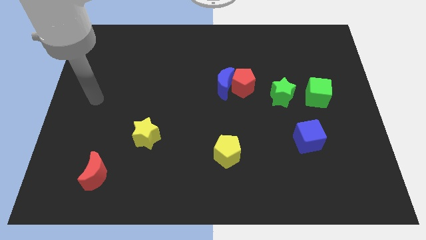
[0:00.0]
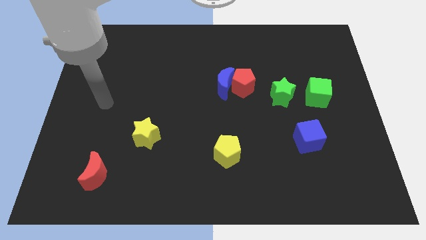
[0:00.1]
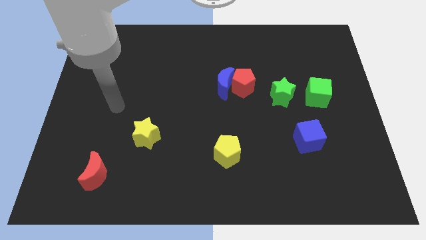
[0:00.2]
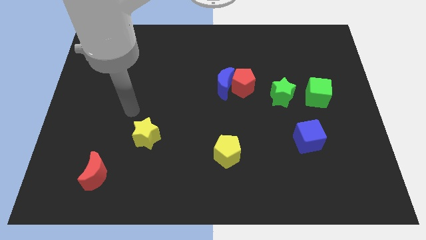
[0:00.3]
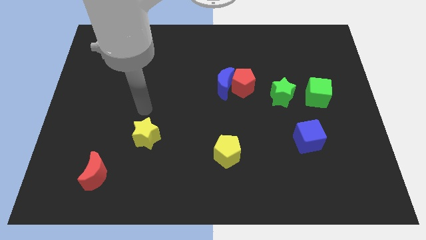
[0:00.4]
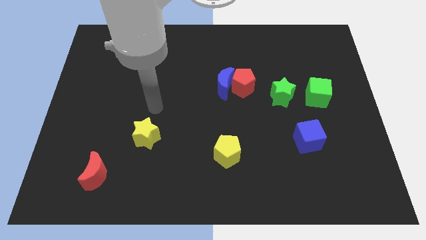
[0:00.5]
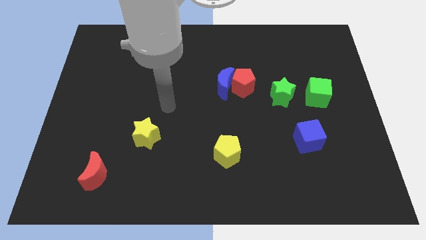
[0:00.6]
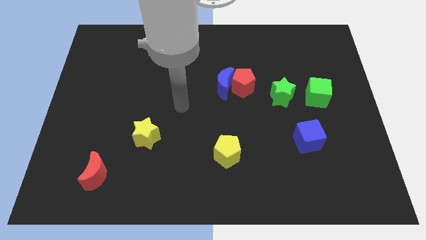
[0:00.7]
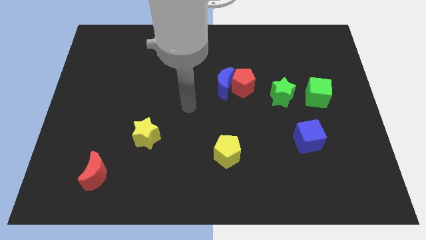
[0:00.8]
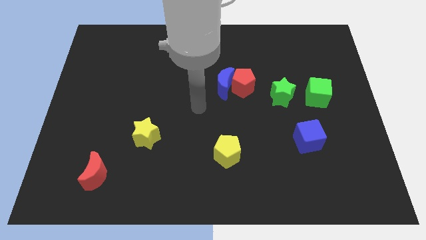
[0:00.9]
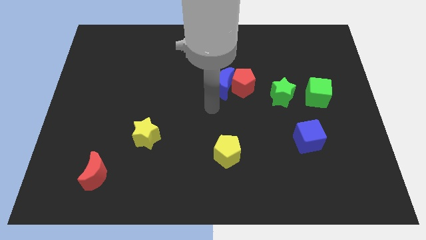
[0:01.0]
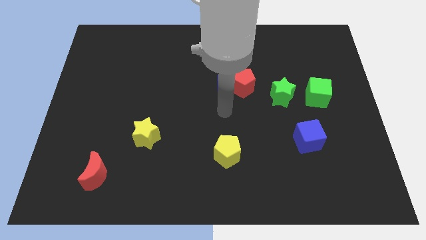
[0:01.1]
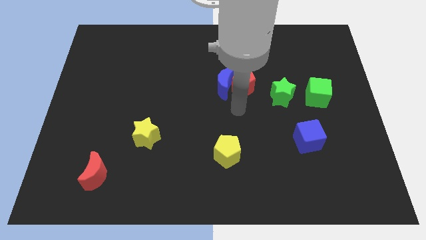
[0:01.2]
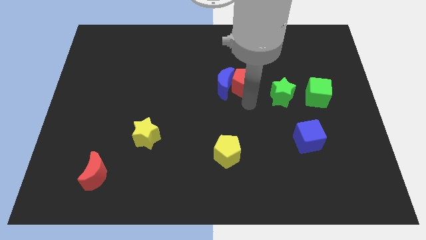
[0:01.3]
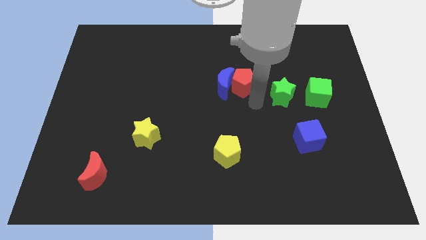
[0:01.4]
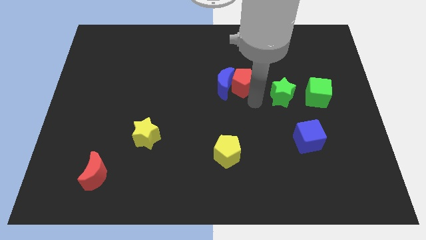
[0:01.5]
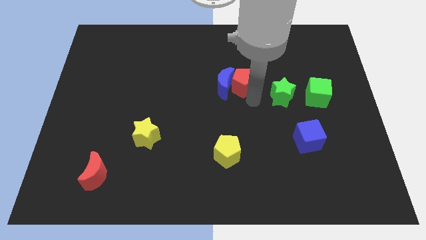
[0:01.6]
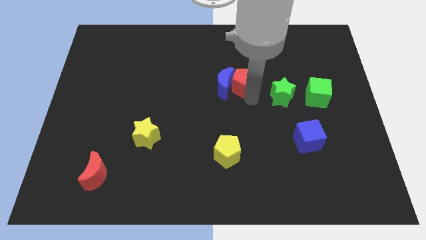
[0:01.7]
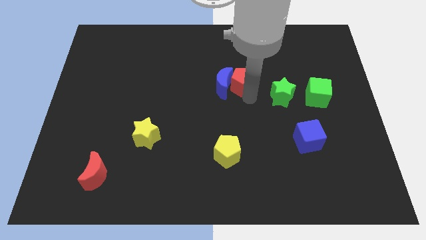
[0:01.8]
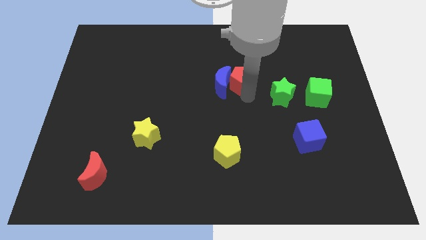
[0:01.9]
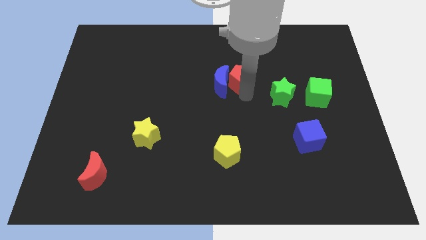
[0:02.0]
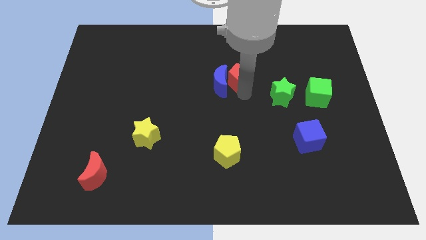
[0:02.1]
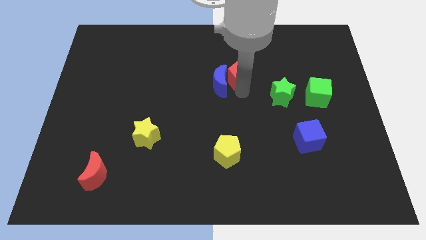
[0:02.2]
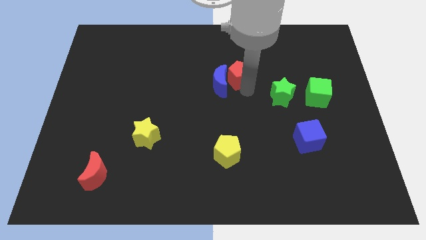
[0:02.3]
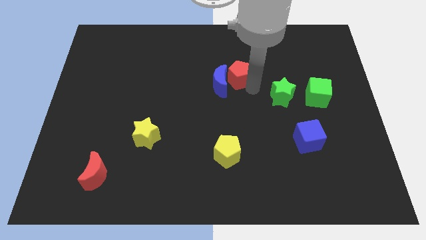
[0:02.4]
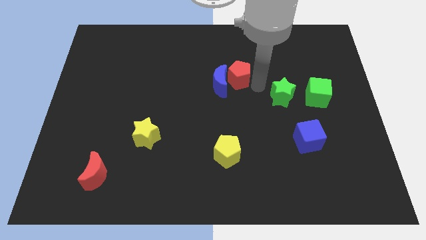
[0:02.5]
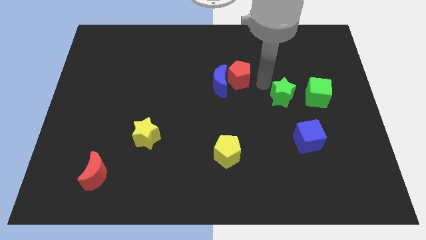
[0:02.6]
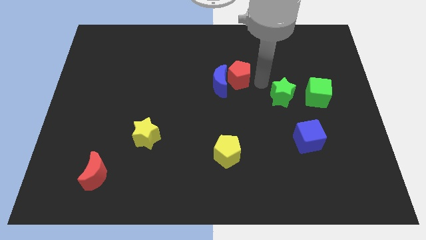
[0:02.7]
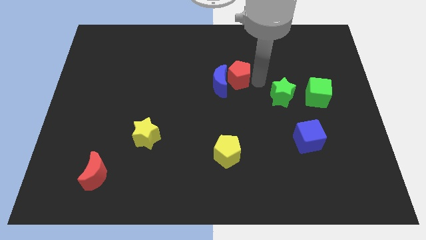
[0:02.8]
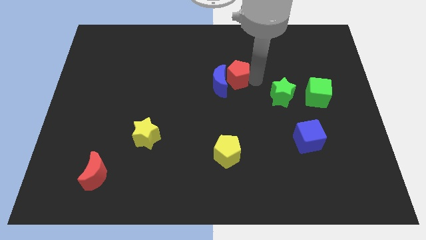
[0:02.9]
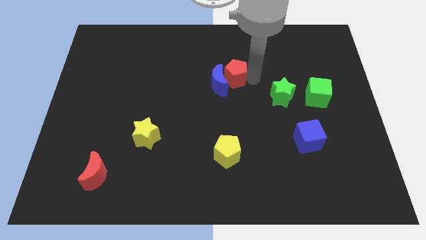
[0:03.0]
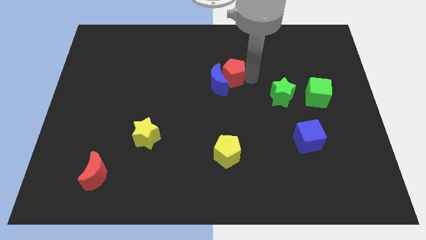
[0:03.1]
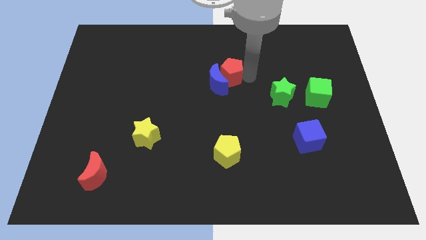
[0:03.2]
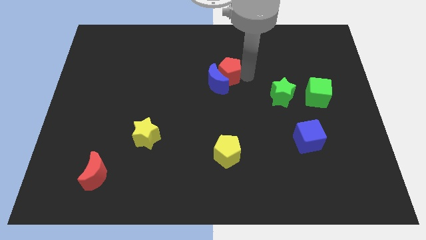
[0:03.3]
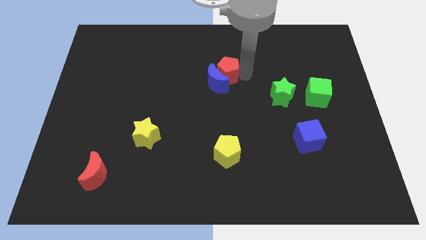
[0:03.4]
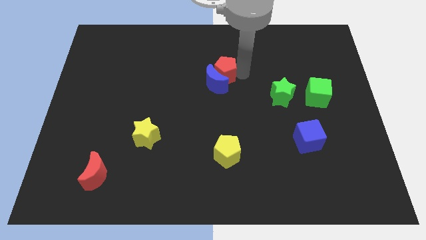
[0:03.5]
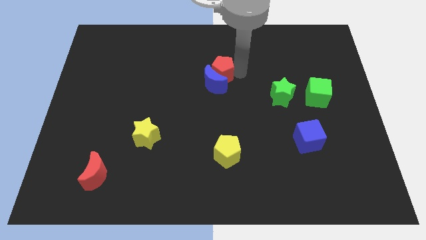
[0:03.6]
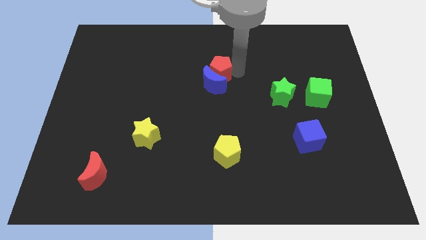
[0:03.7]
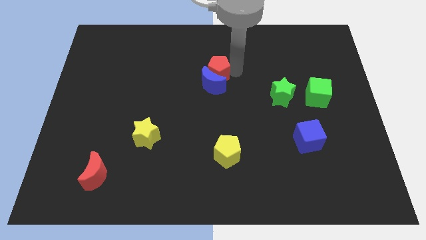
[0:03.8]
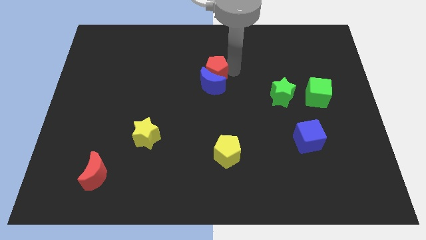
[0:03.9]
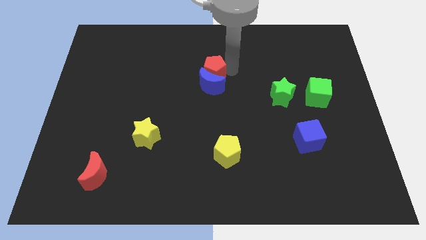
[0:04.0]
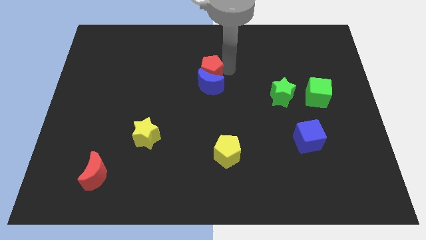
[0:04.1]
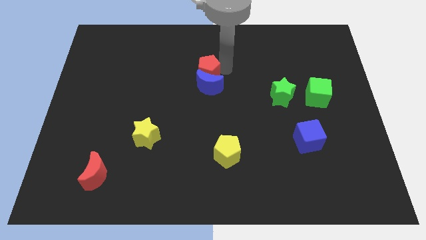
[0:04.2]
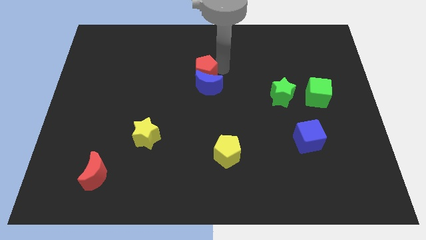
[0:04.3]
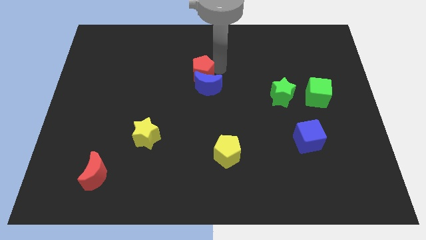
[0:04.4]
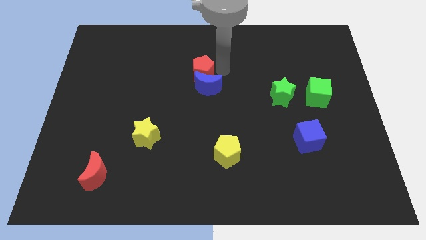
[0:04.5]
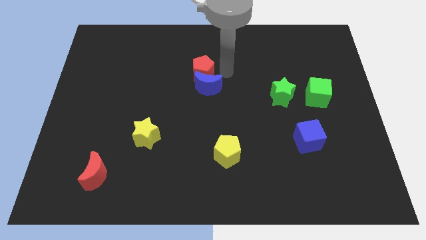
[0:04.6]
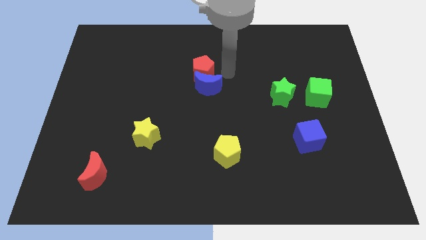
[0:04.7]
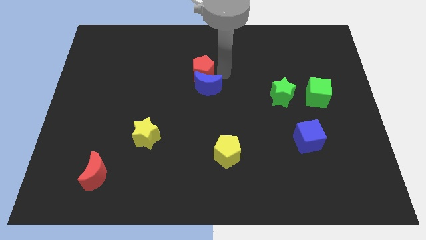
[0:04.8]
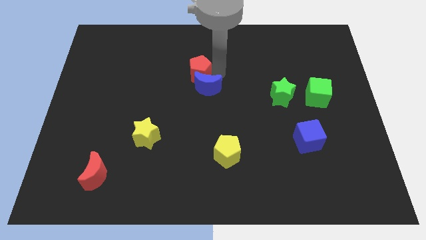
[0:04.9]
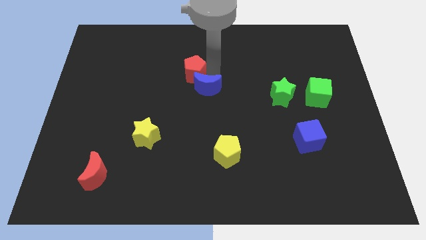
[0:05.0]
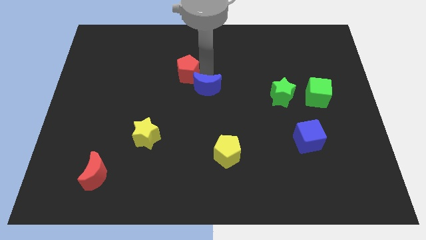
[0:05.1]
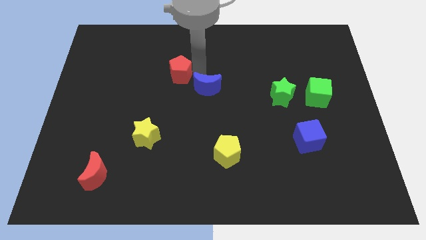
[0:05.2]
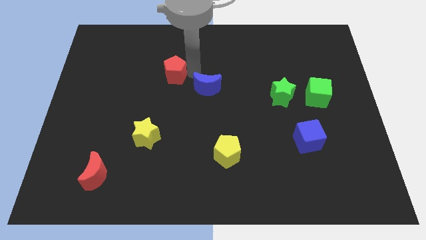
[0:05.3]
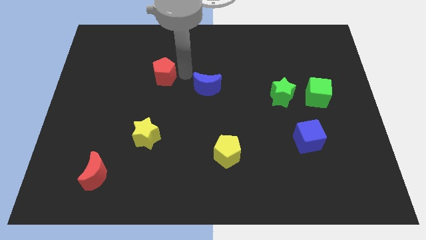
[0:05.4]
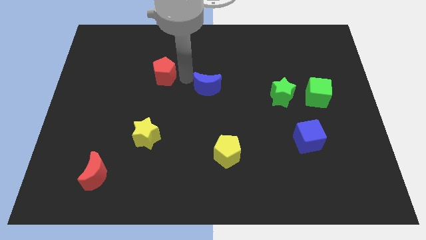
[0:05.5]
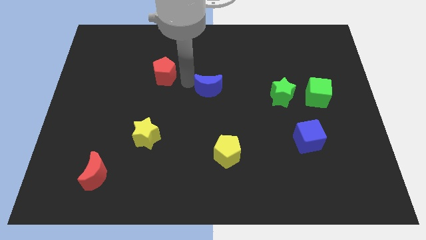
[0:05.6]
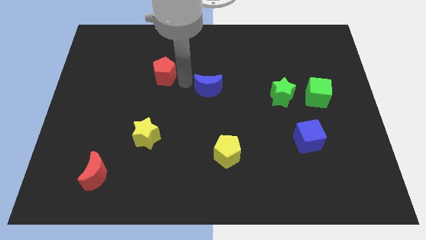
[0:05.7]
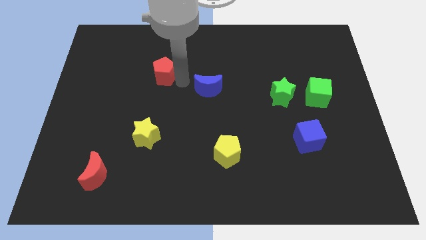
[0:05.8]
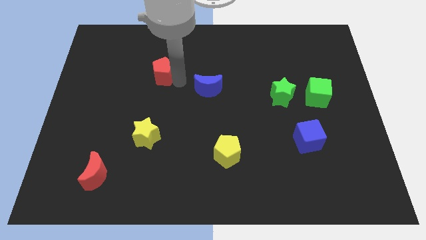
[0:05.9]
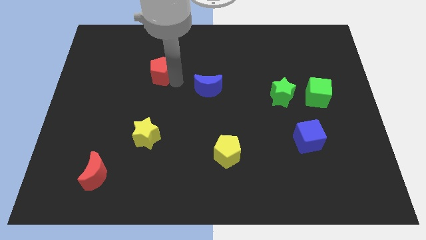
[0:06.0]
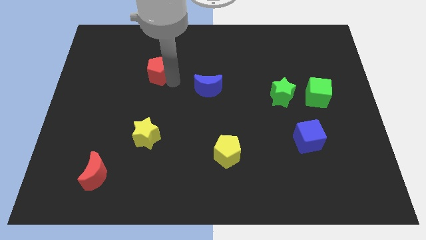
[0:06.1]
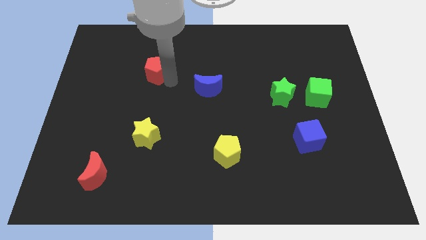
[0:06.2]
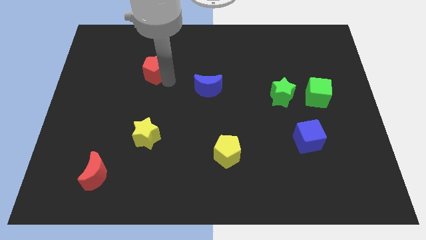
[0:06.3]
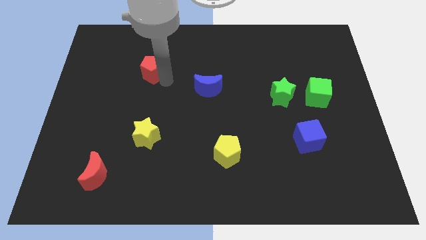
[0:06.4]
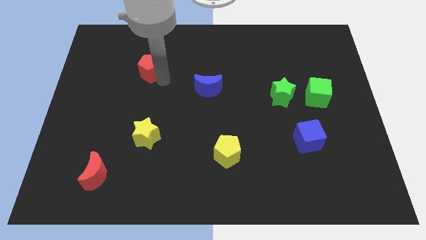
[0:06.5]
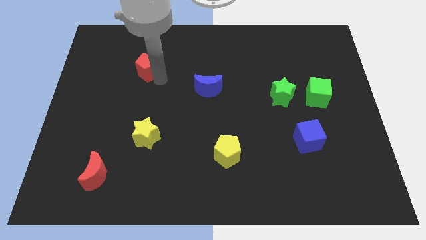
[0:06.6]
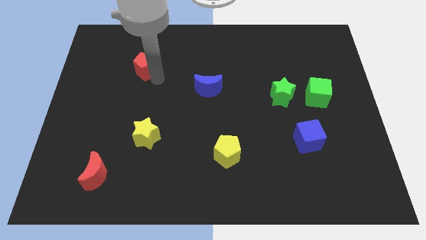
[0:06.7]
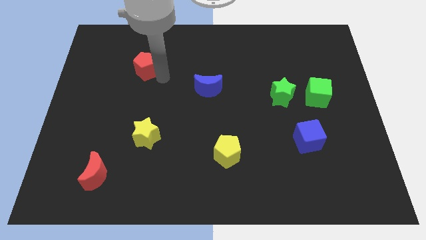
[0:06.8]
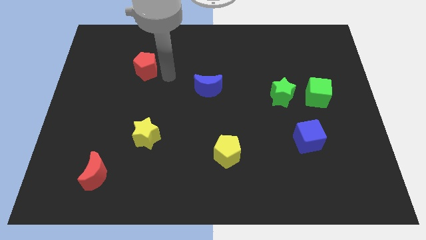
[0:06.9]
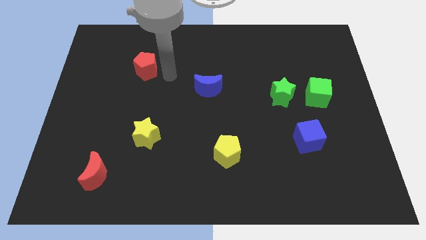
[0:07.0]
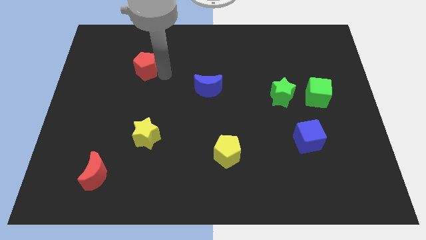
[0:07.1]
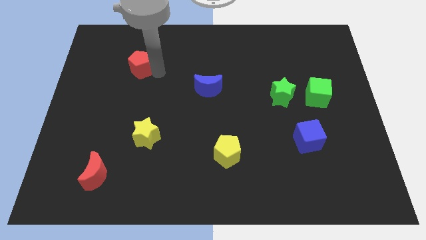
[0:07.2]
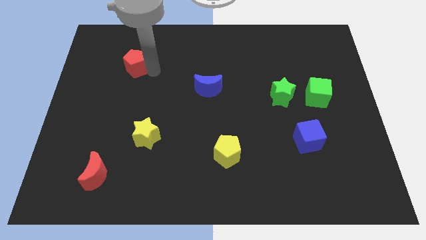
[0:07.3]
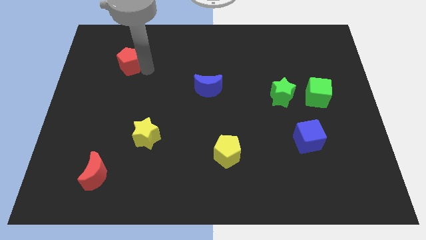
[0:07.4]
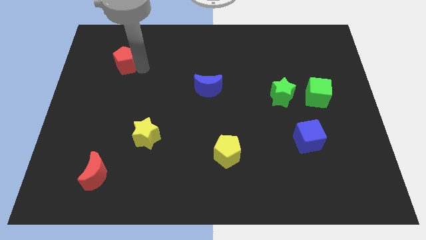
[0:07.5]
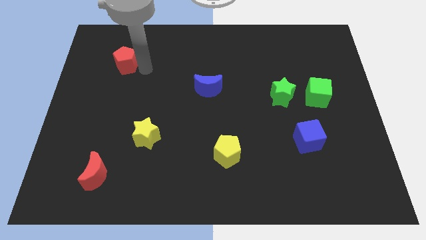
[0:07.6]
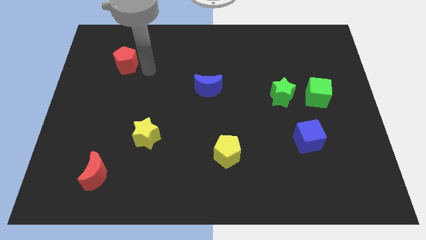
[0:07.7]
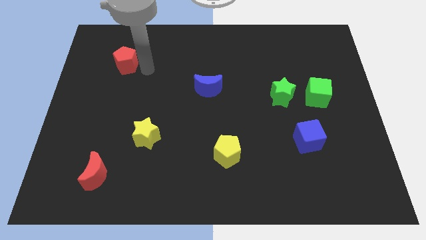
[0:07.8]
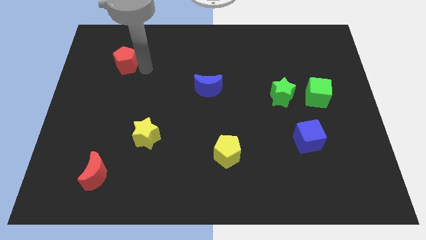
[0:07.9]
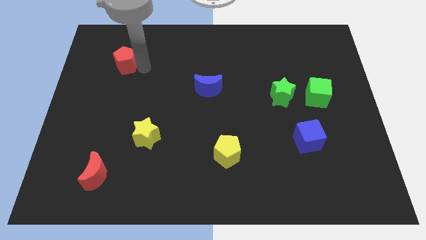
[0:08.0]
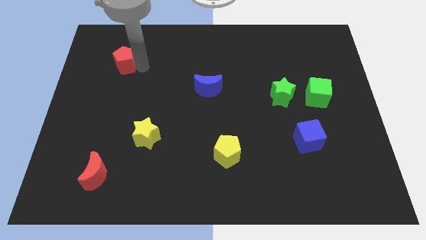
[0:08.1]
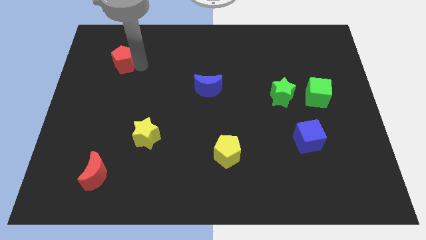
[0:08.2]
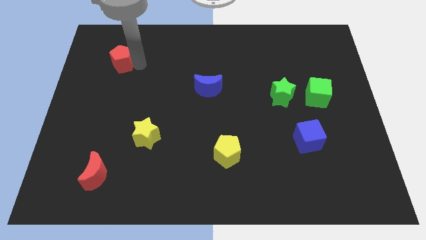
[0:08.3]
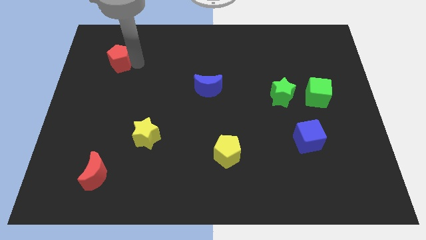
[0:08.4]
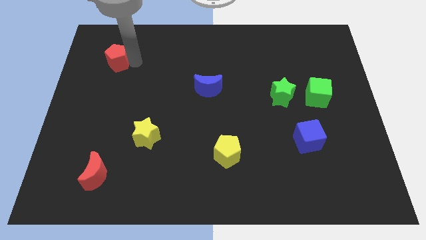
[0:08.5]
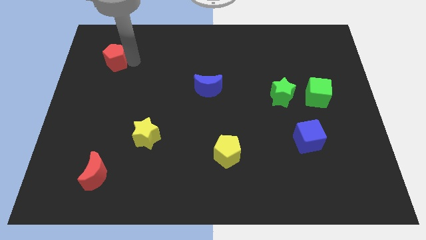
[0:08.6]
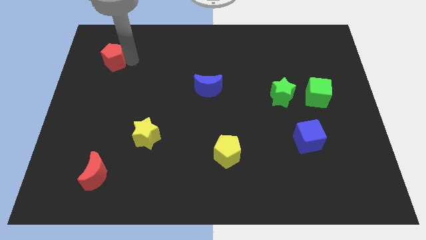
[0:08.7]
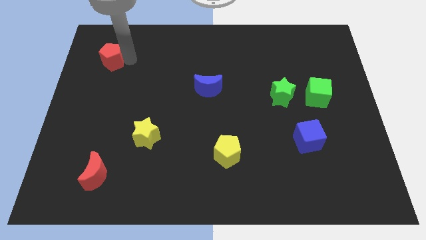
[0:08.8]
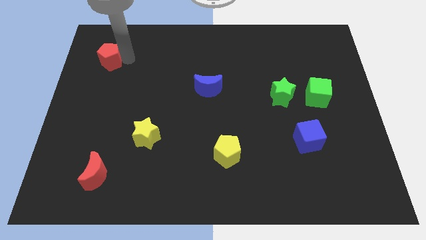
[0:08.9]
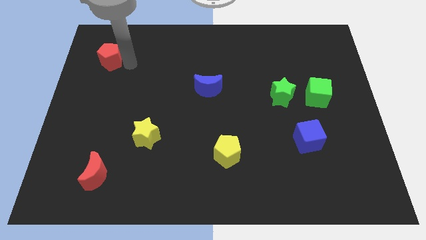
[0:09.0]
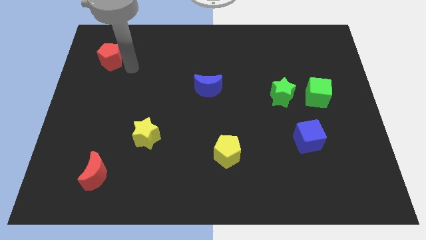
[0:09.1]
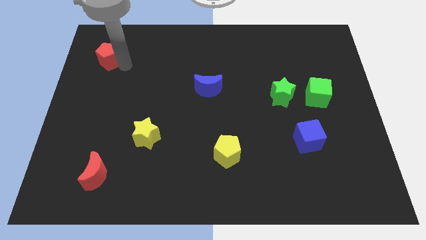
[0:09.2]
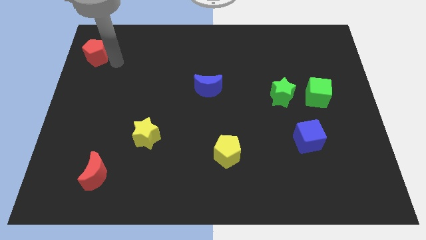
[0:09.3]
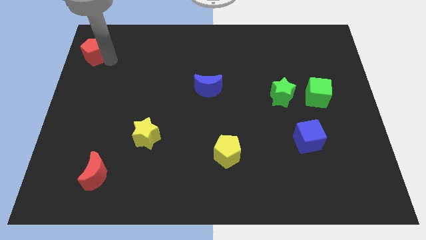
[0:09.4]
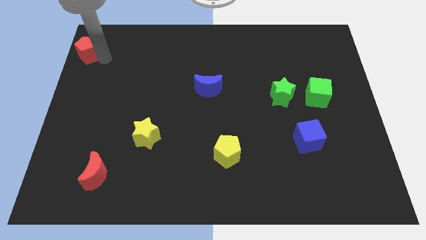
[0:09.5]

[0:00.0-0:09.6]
put the red pentagon to the upper left corner
